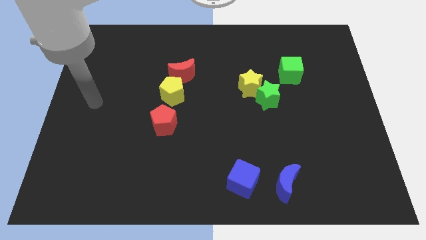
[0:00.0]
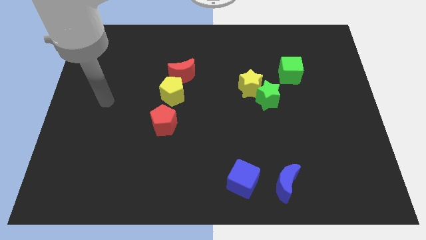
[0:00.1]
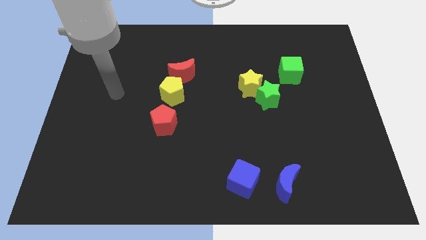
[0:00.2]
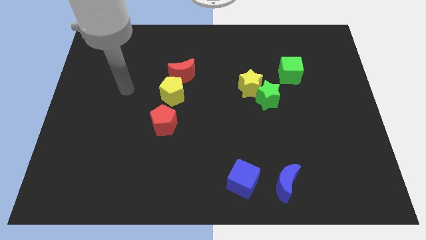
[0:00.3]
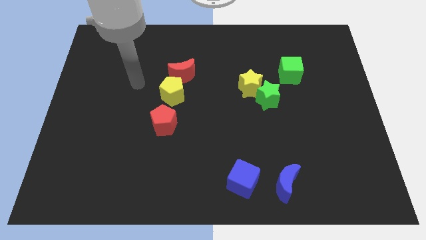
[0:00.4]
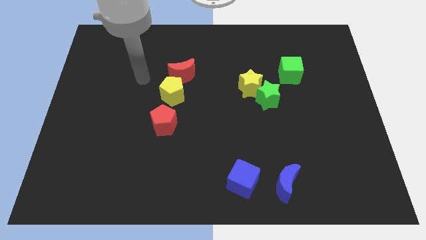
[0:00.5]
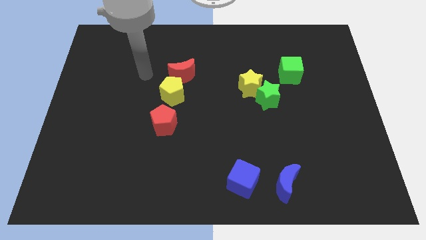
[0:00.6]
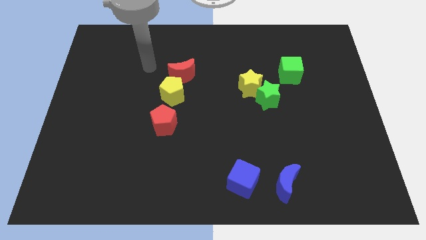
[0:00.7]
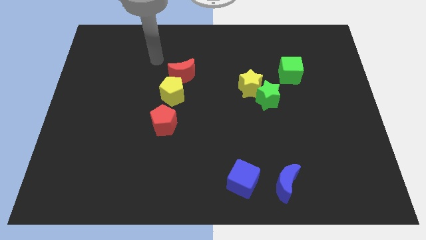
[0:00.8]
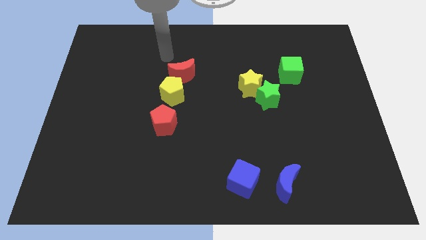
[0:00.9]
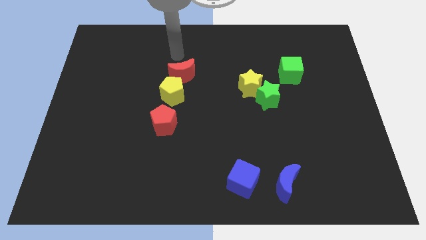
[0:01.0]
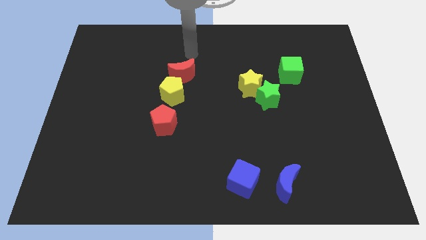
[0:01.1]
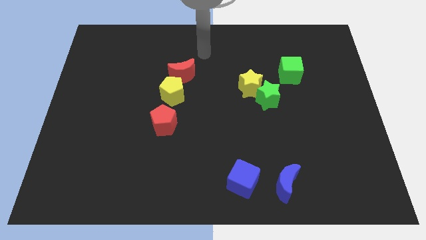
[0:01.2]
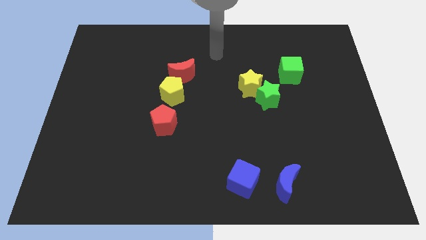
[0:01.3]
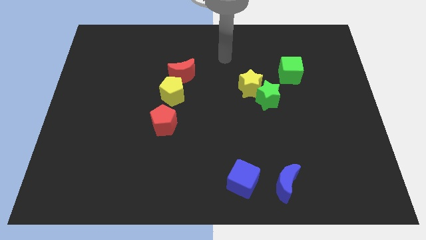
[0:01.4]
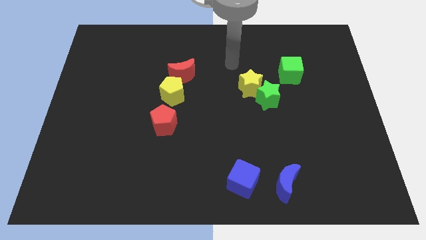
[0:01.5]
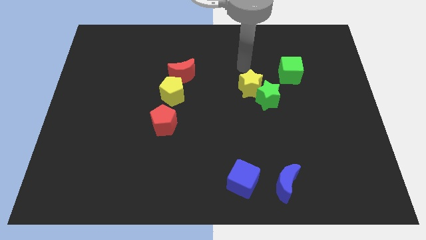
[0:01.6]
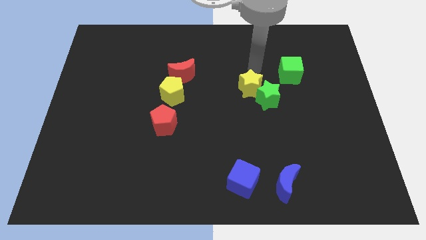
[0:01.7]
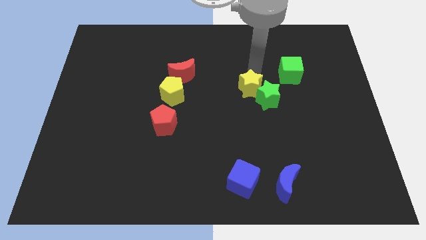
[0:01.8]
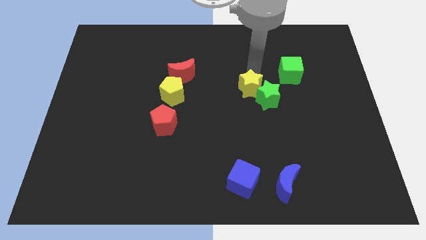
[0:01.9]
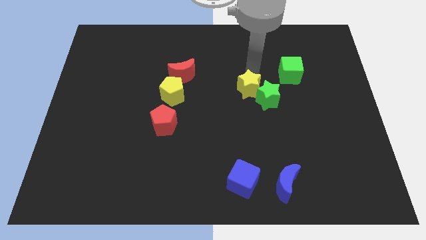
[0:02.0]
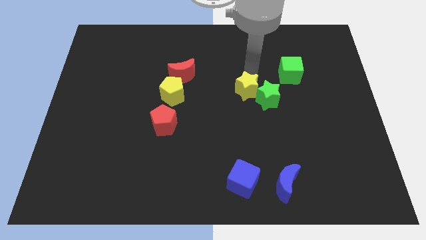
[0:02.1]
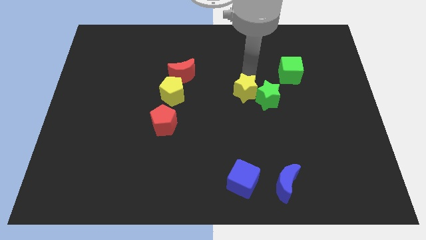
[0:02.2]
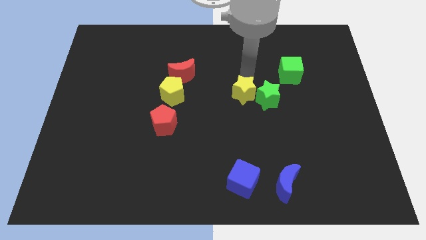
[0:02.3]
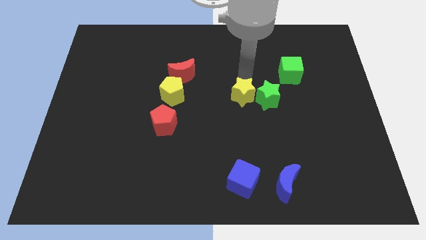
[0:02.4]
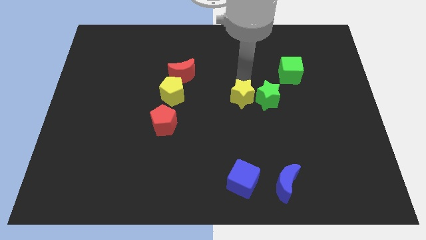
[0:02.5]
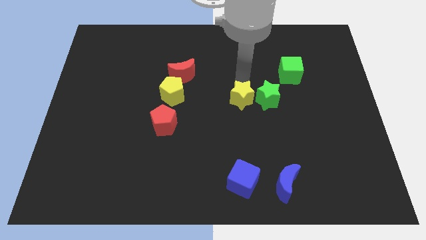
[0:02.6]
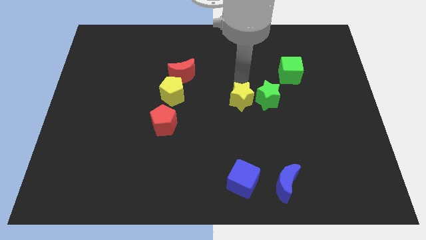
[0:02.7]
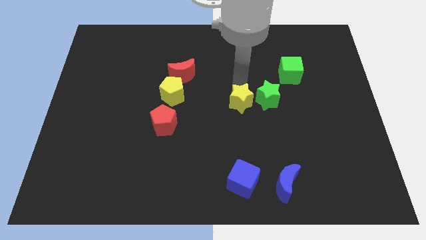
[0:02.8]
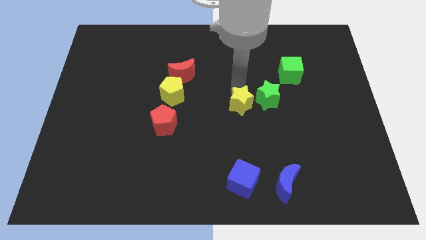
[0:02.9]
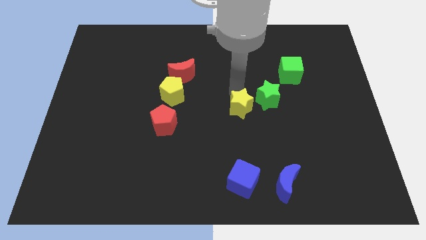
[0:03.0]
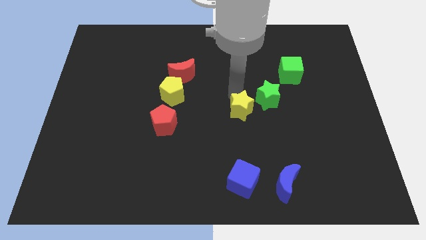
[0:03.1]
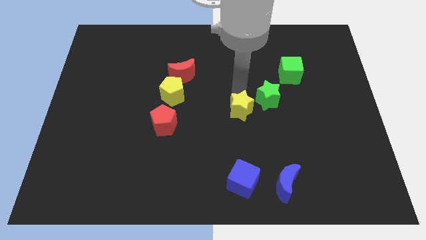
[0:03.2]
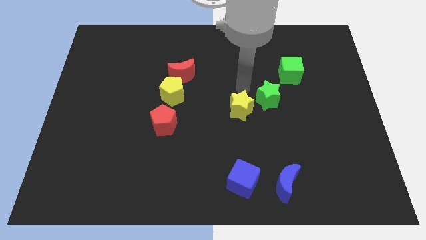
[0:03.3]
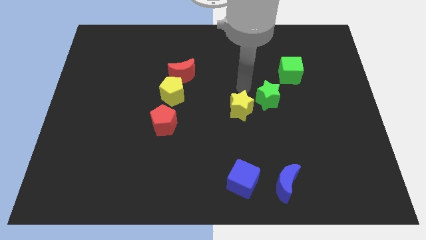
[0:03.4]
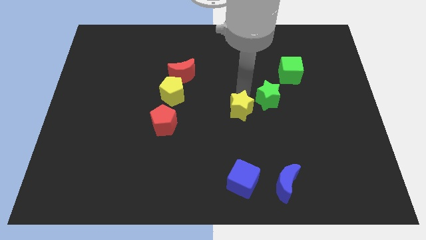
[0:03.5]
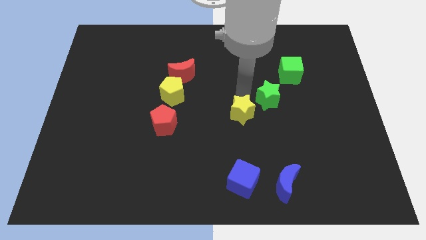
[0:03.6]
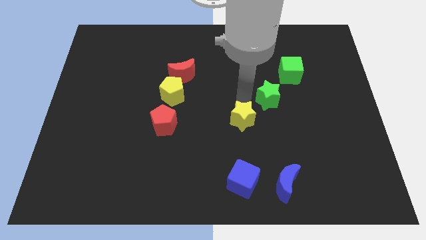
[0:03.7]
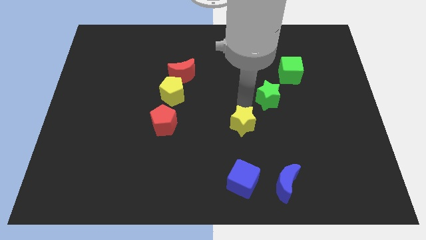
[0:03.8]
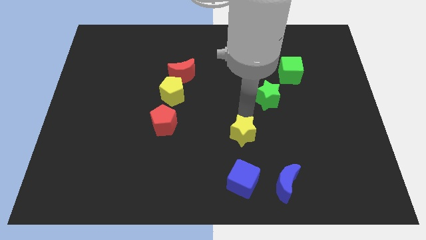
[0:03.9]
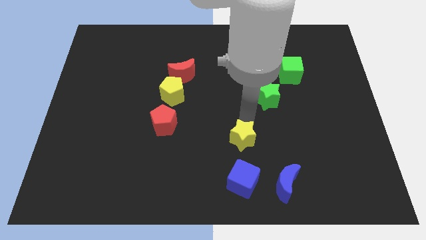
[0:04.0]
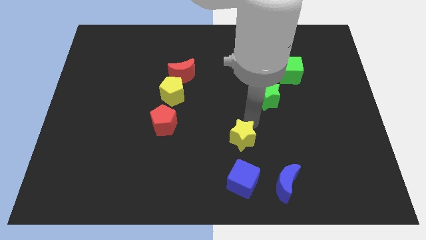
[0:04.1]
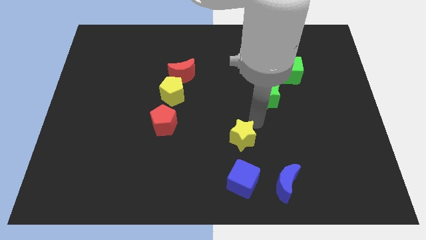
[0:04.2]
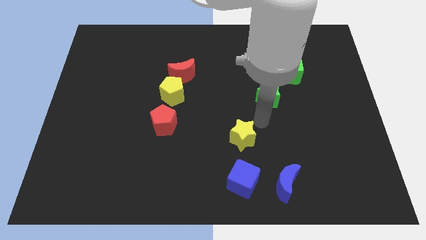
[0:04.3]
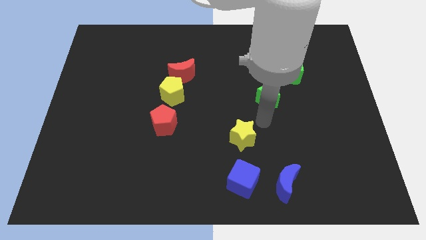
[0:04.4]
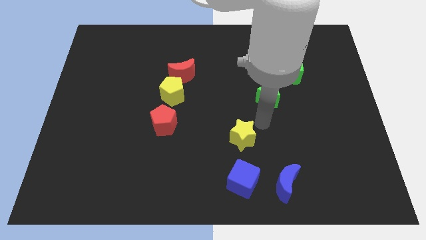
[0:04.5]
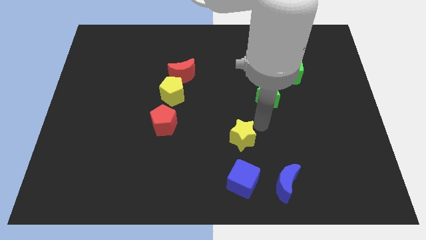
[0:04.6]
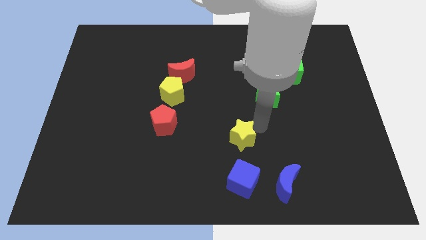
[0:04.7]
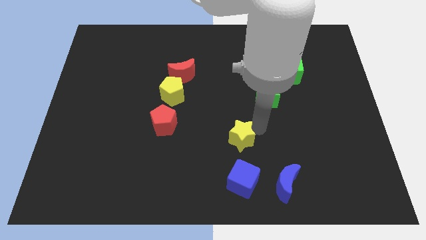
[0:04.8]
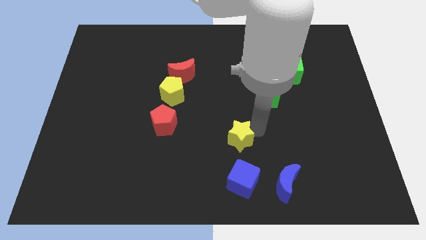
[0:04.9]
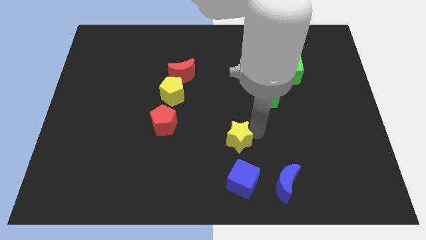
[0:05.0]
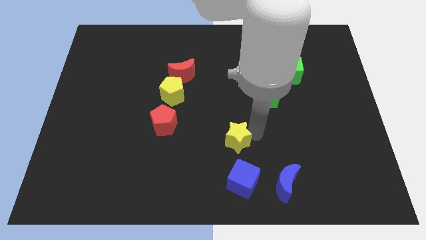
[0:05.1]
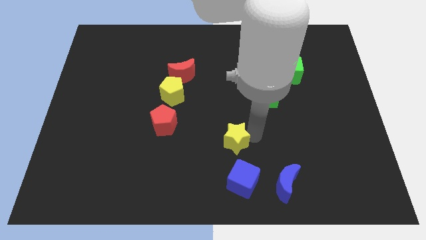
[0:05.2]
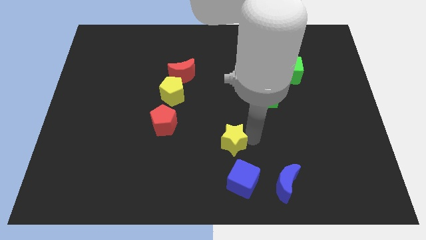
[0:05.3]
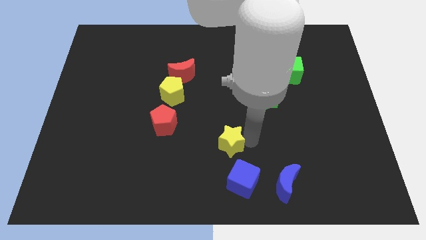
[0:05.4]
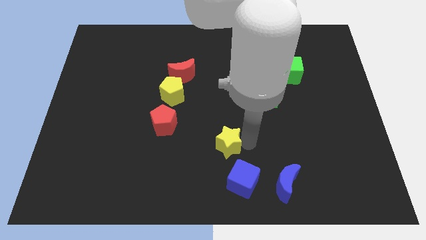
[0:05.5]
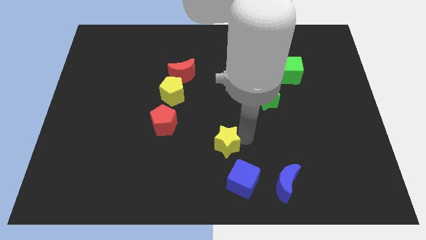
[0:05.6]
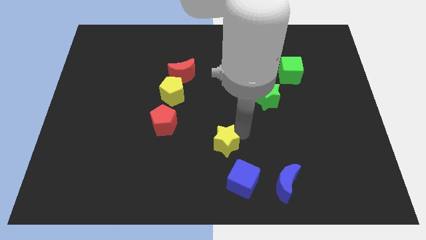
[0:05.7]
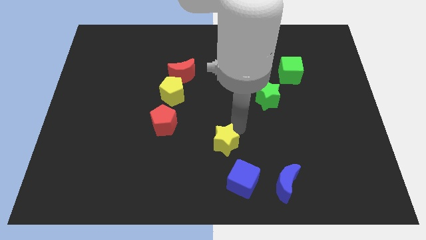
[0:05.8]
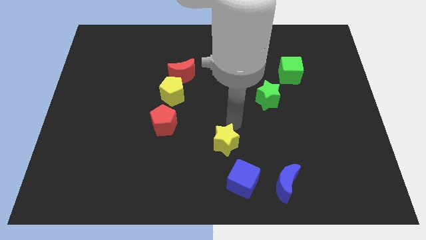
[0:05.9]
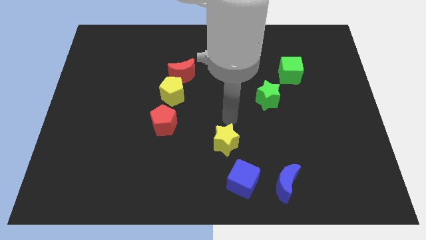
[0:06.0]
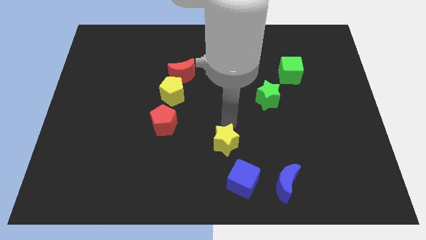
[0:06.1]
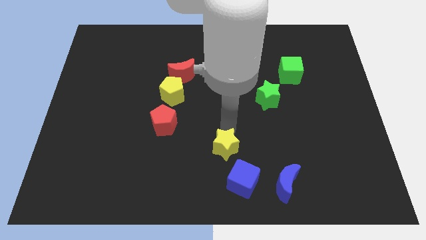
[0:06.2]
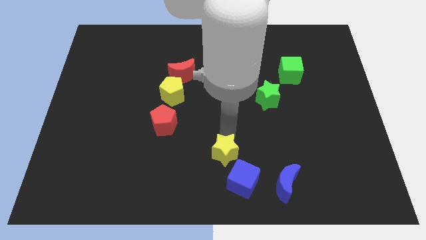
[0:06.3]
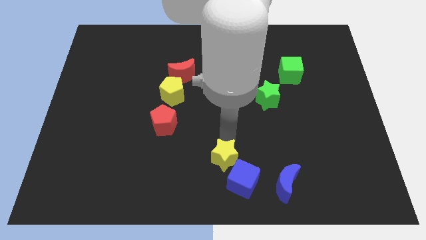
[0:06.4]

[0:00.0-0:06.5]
put the yellow star to the bottom side

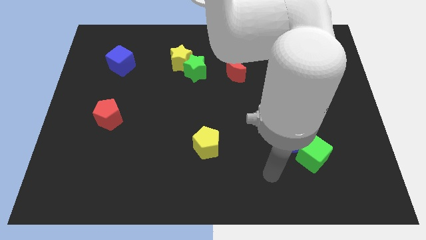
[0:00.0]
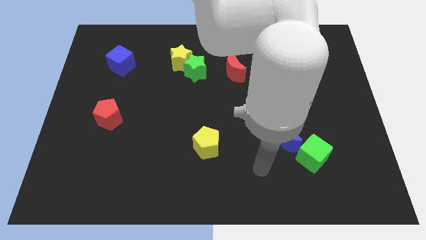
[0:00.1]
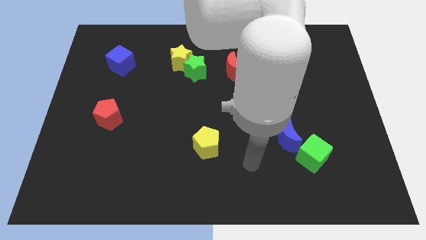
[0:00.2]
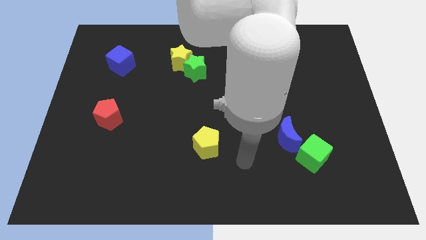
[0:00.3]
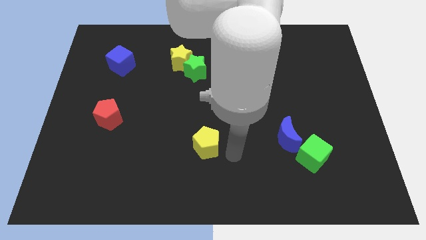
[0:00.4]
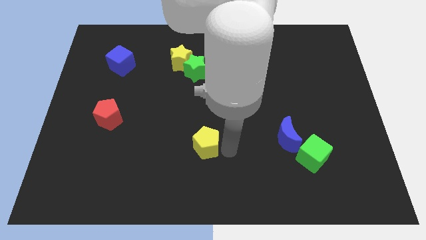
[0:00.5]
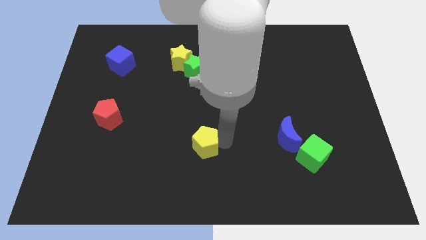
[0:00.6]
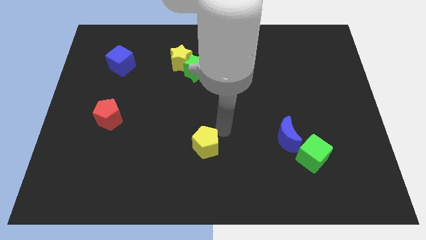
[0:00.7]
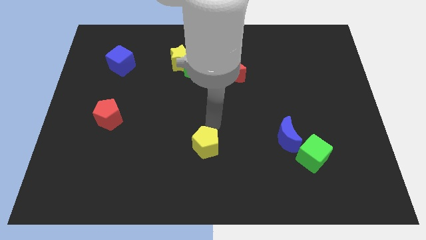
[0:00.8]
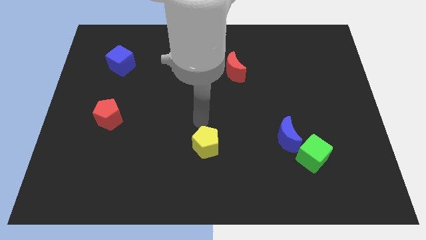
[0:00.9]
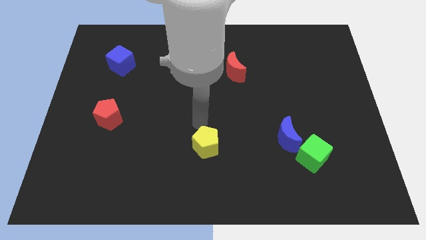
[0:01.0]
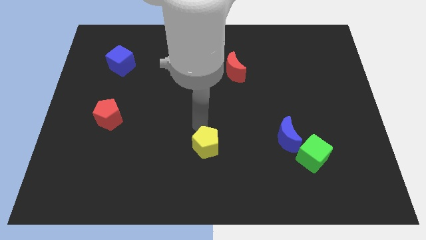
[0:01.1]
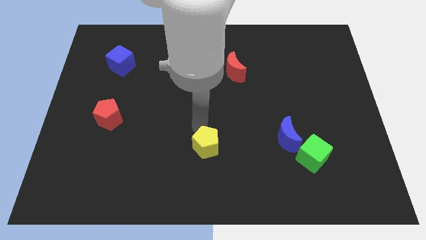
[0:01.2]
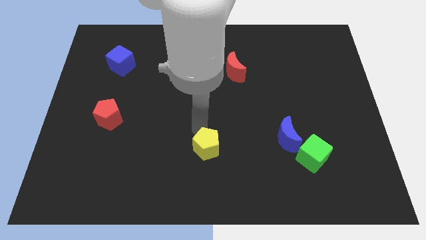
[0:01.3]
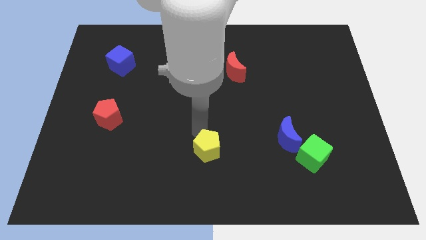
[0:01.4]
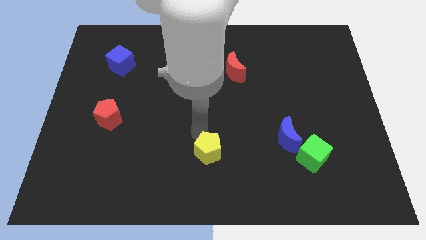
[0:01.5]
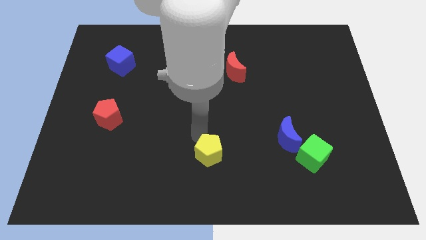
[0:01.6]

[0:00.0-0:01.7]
push the yellow pentagon to the bottom side
